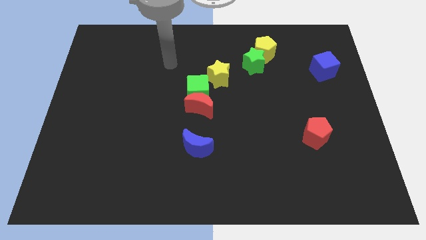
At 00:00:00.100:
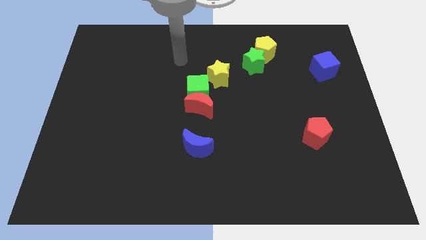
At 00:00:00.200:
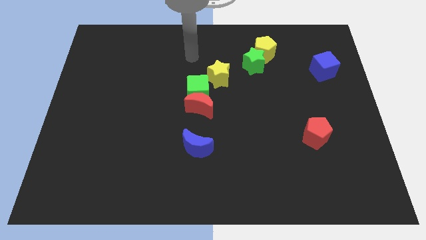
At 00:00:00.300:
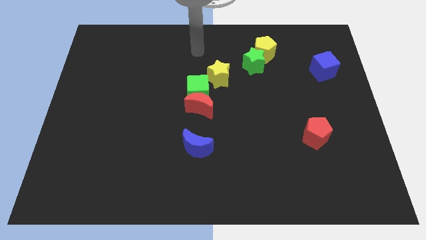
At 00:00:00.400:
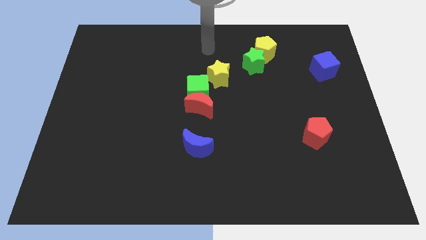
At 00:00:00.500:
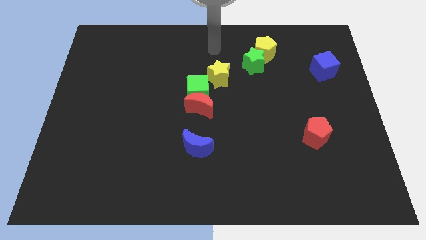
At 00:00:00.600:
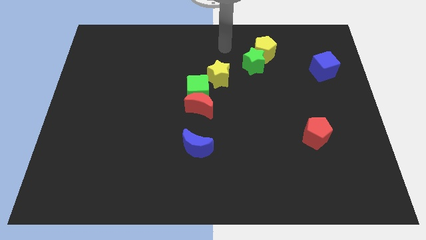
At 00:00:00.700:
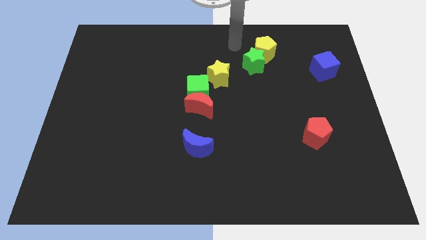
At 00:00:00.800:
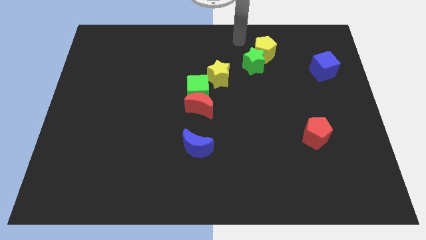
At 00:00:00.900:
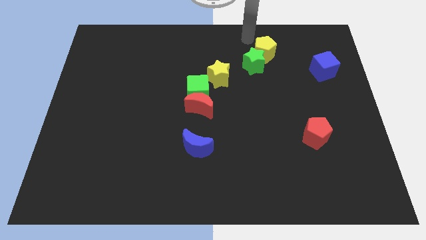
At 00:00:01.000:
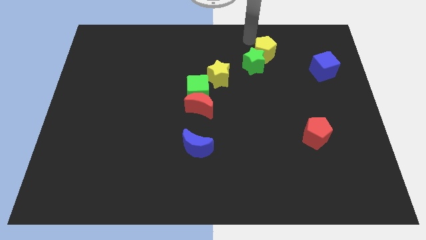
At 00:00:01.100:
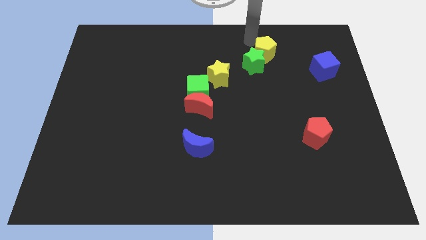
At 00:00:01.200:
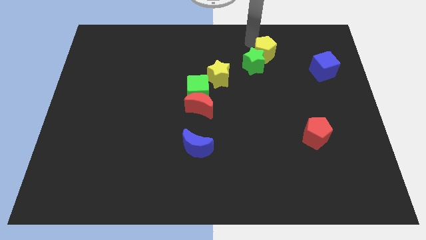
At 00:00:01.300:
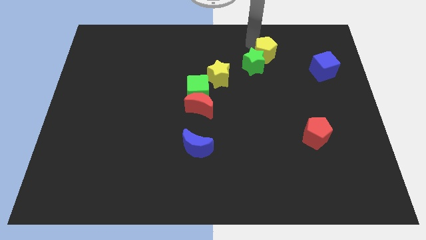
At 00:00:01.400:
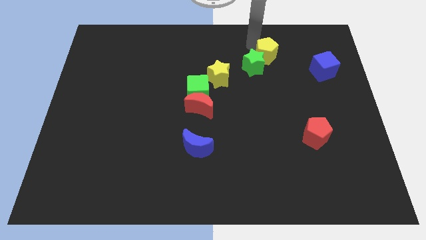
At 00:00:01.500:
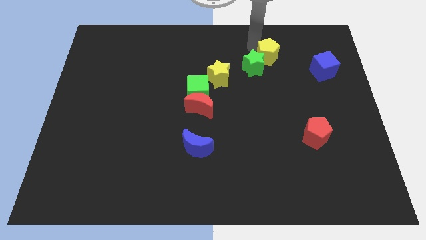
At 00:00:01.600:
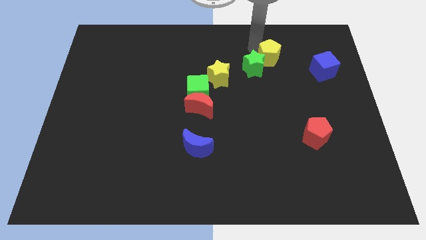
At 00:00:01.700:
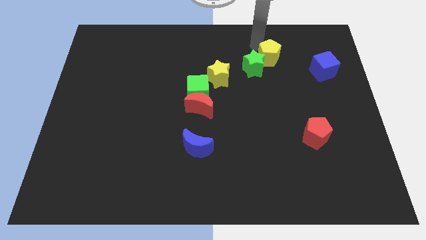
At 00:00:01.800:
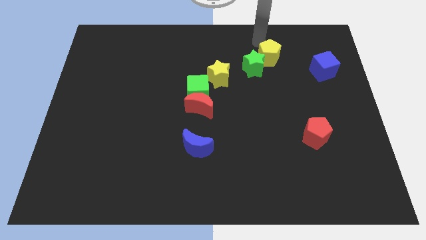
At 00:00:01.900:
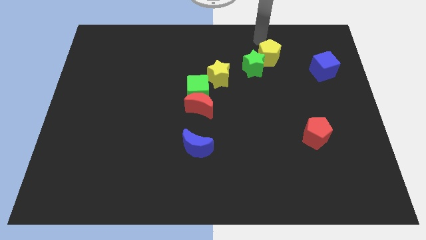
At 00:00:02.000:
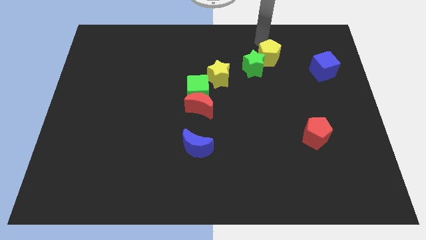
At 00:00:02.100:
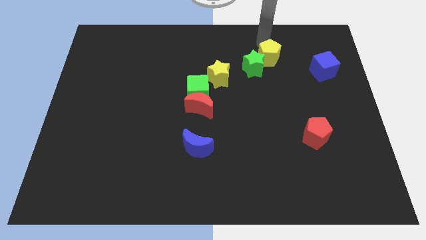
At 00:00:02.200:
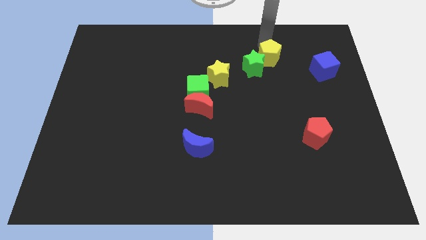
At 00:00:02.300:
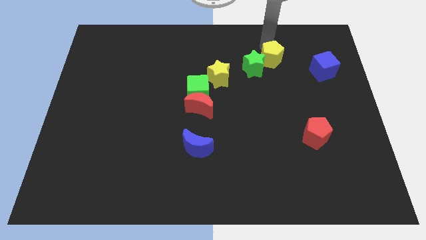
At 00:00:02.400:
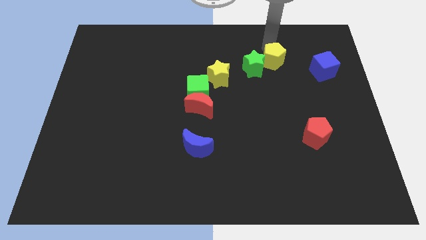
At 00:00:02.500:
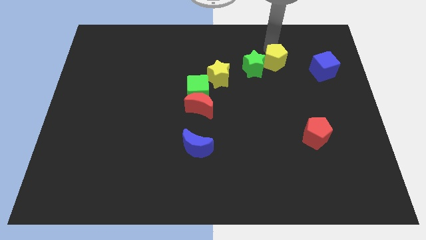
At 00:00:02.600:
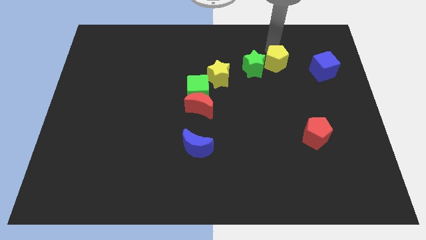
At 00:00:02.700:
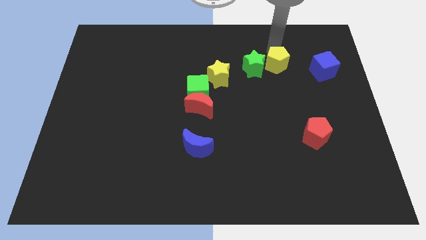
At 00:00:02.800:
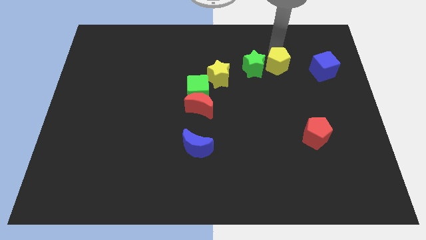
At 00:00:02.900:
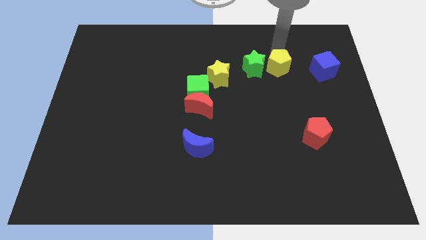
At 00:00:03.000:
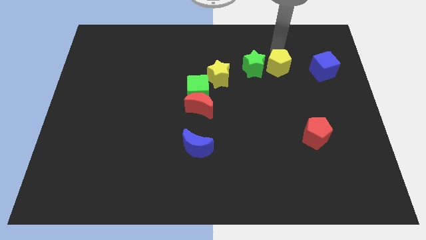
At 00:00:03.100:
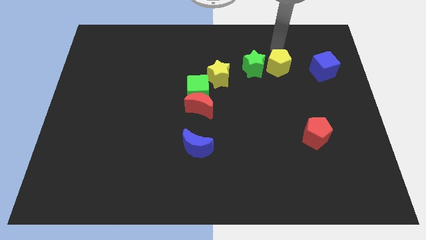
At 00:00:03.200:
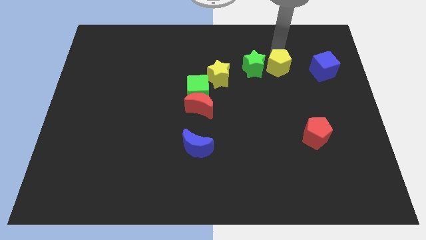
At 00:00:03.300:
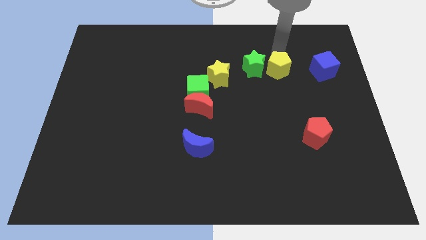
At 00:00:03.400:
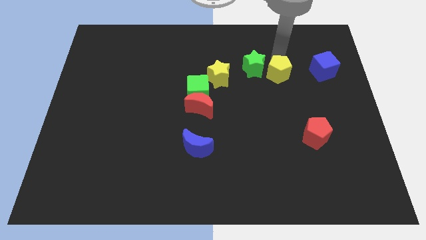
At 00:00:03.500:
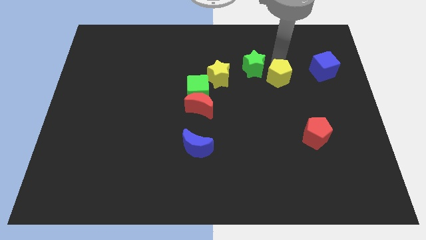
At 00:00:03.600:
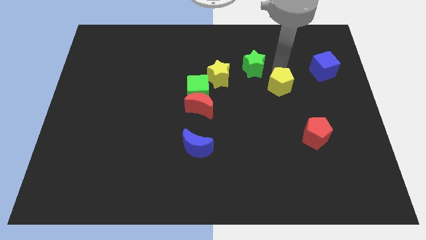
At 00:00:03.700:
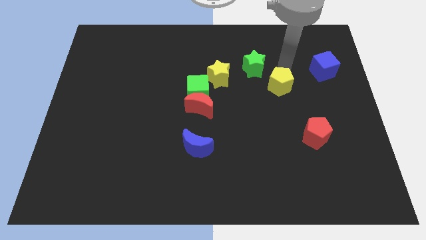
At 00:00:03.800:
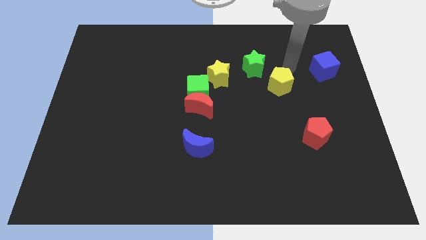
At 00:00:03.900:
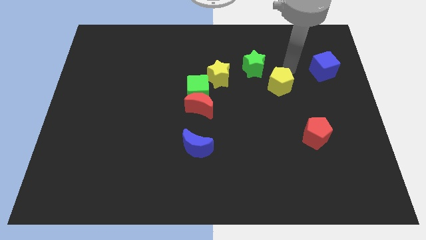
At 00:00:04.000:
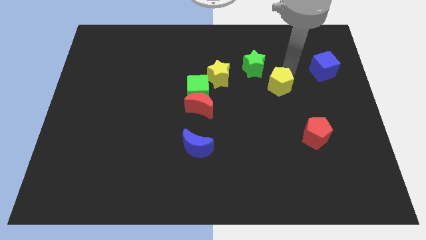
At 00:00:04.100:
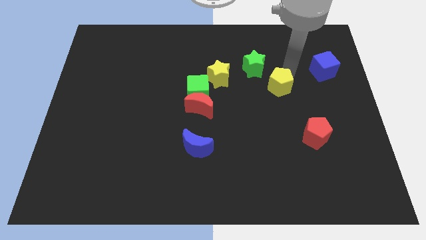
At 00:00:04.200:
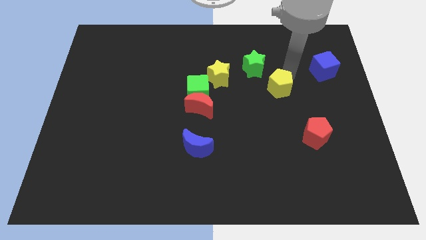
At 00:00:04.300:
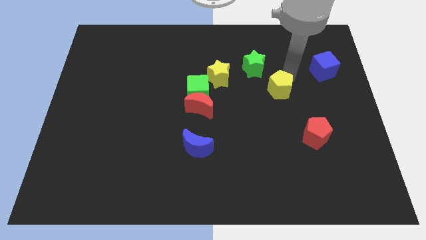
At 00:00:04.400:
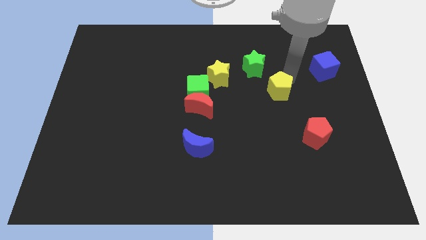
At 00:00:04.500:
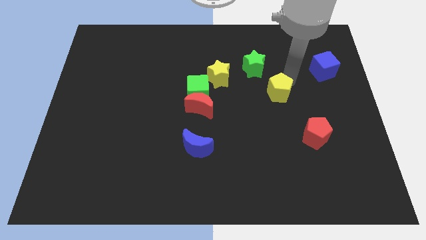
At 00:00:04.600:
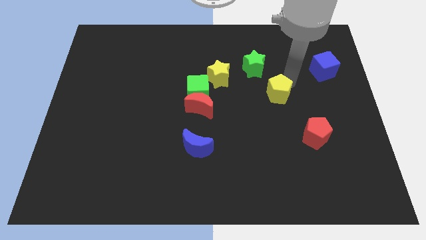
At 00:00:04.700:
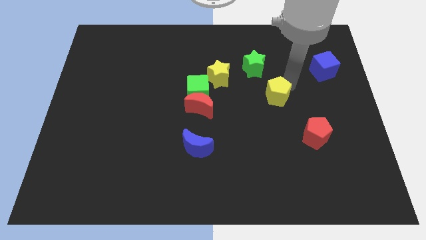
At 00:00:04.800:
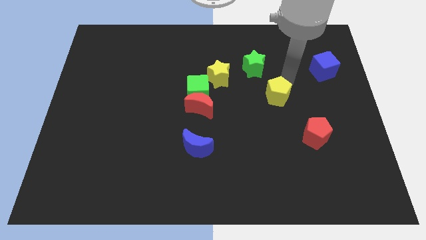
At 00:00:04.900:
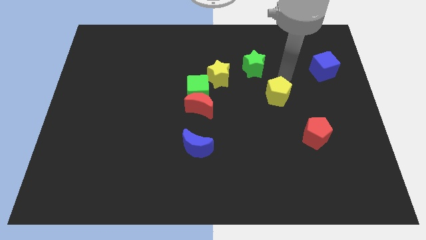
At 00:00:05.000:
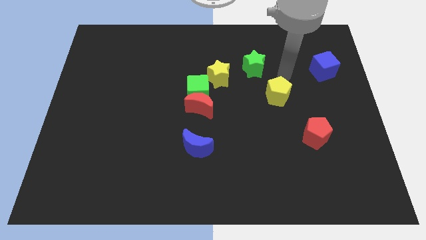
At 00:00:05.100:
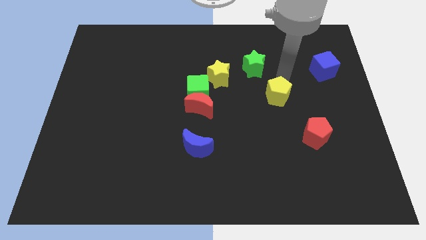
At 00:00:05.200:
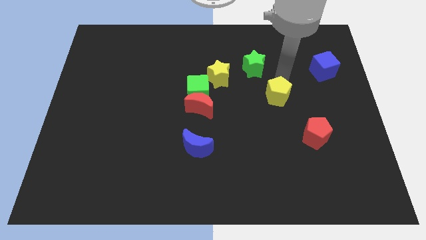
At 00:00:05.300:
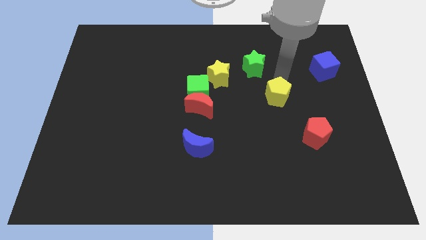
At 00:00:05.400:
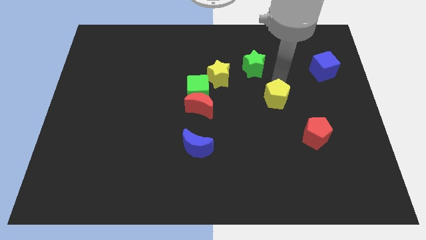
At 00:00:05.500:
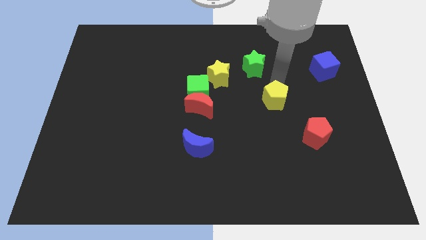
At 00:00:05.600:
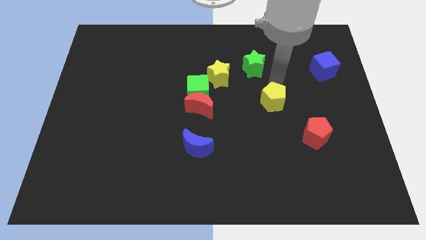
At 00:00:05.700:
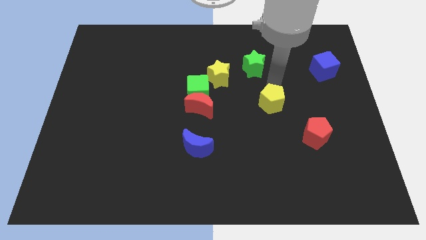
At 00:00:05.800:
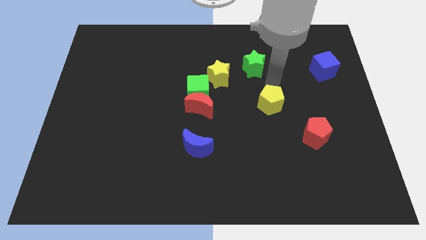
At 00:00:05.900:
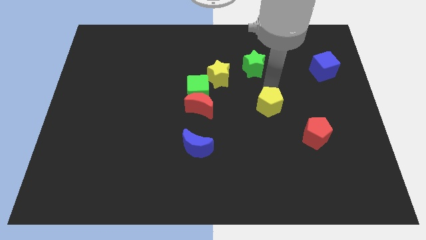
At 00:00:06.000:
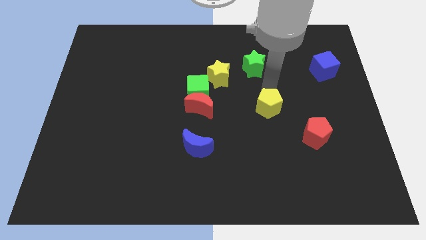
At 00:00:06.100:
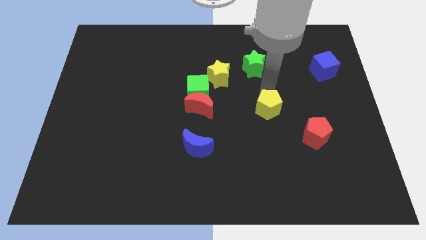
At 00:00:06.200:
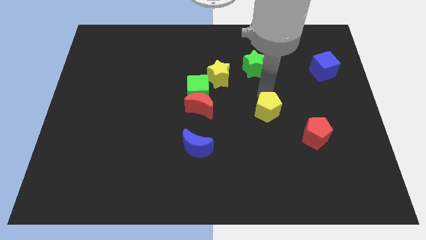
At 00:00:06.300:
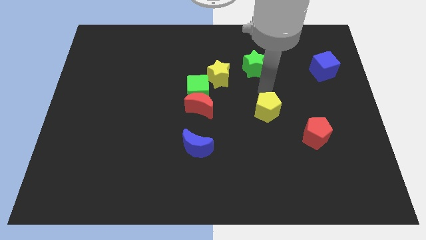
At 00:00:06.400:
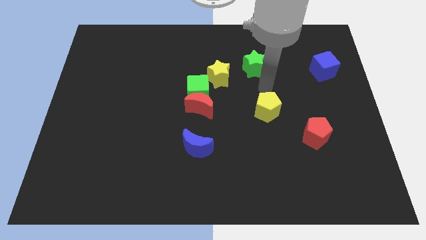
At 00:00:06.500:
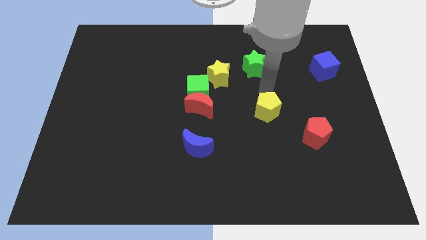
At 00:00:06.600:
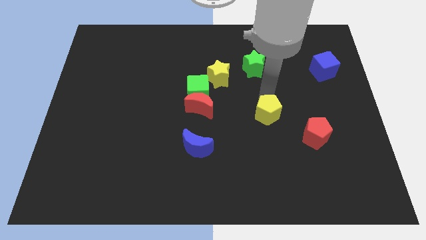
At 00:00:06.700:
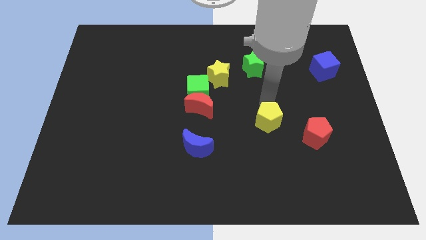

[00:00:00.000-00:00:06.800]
slide the yellow pentagon left of the red pentagon

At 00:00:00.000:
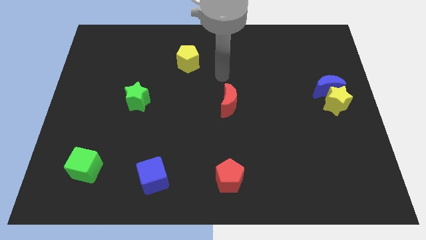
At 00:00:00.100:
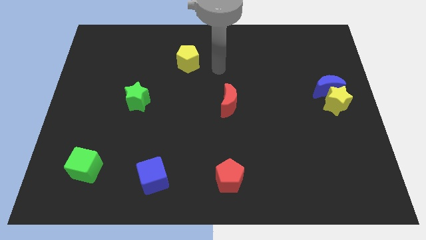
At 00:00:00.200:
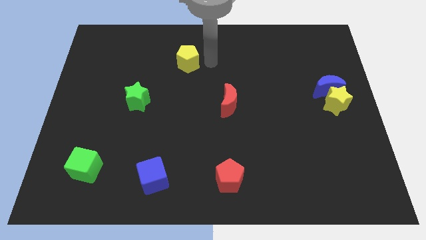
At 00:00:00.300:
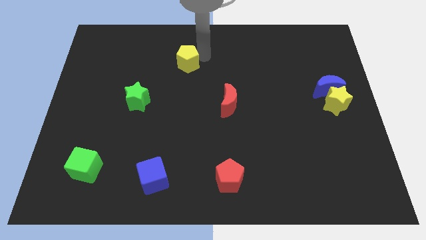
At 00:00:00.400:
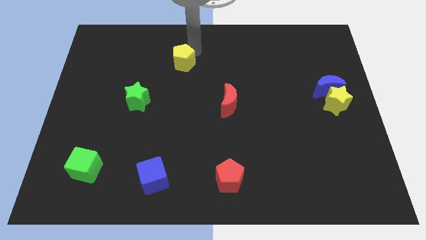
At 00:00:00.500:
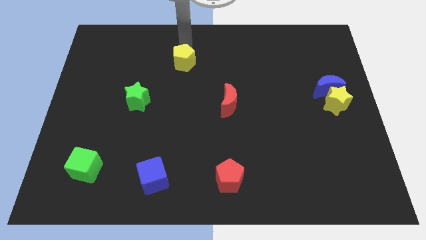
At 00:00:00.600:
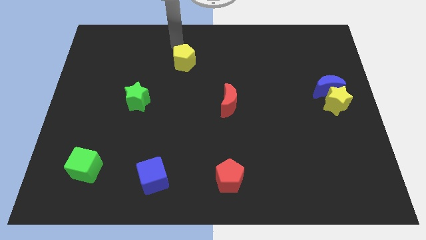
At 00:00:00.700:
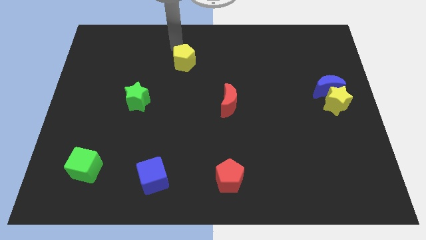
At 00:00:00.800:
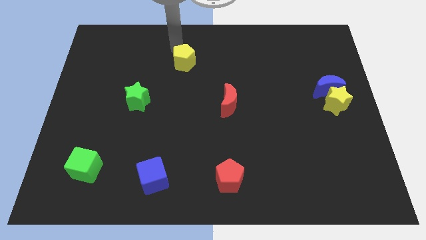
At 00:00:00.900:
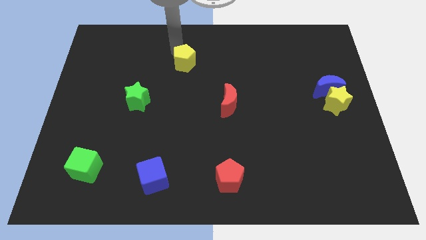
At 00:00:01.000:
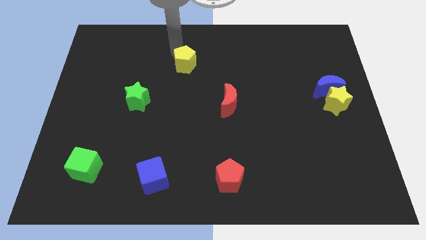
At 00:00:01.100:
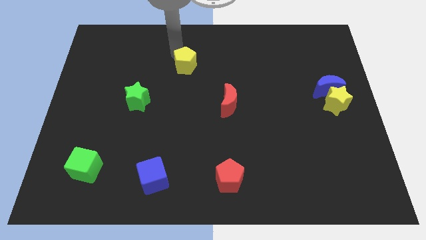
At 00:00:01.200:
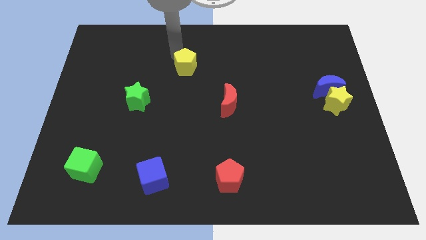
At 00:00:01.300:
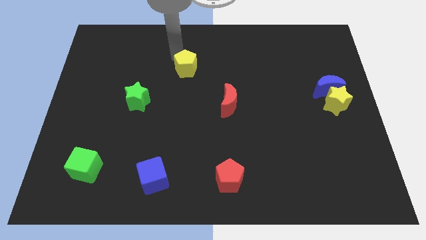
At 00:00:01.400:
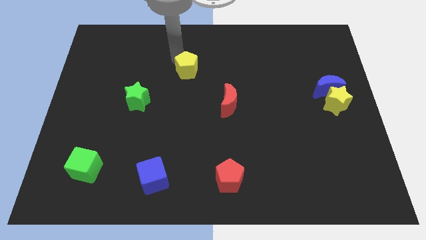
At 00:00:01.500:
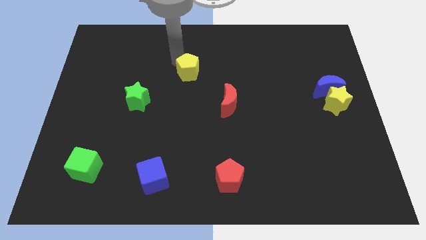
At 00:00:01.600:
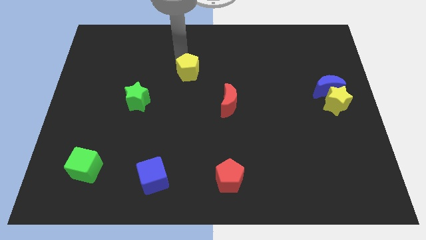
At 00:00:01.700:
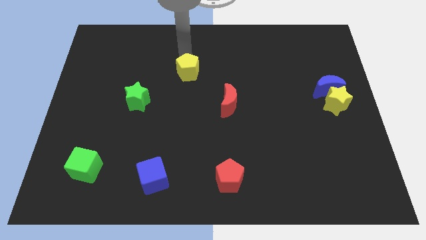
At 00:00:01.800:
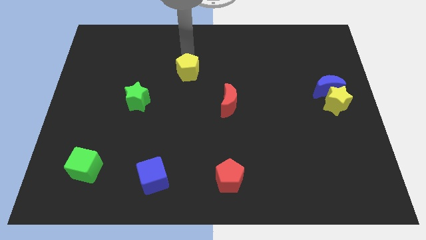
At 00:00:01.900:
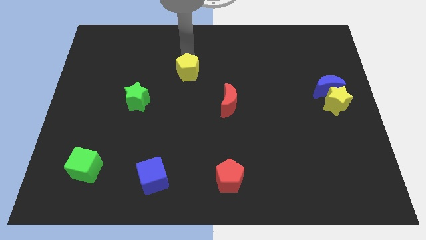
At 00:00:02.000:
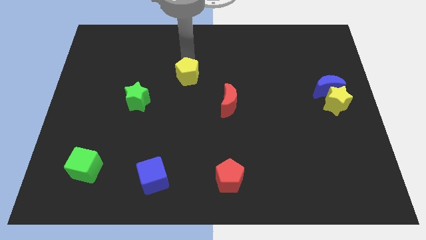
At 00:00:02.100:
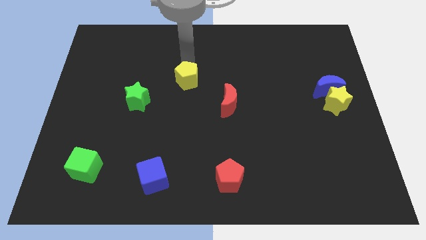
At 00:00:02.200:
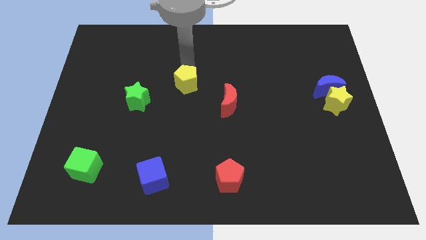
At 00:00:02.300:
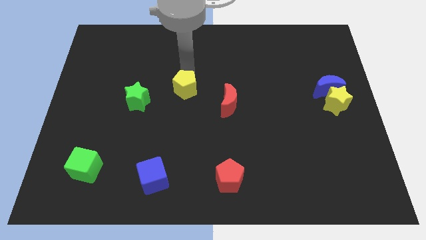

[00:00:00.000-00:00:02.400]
move the yellow pentagon left of the red moon
